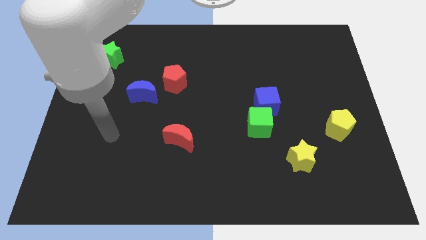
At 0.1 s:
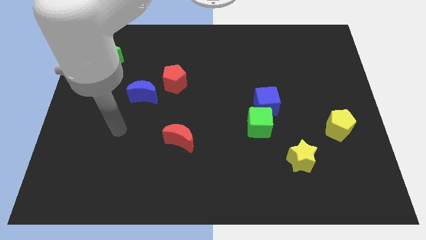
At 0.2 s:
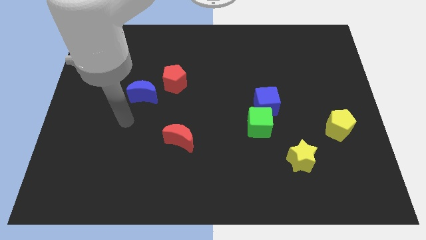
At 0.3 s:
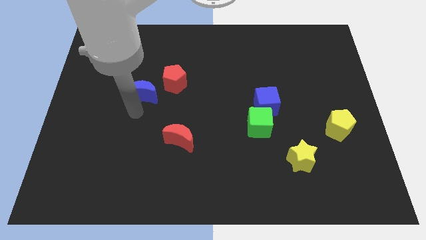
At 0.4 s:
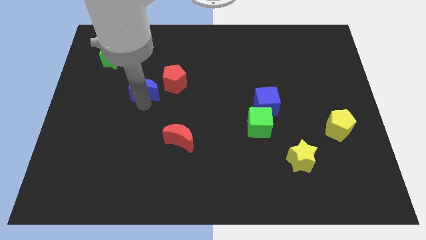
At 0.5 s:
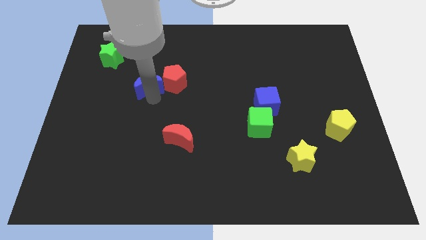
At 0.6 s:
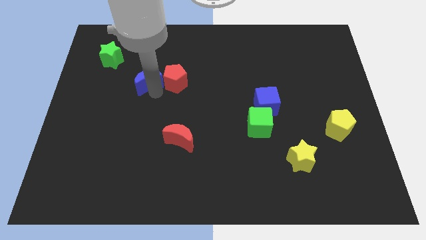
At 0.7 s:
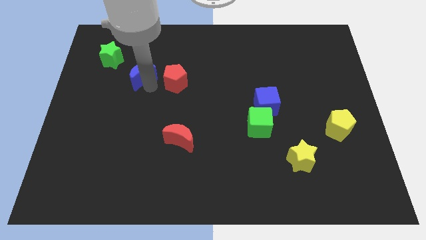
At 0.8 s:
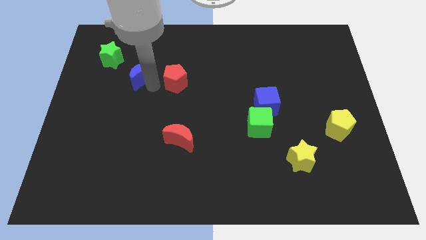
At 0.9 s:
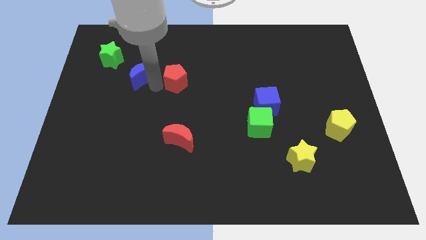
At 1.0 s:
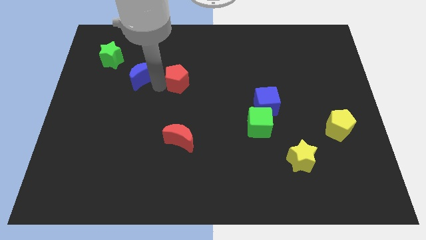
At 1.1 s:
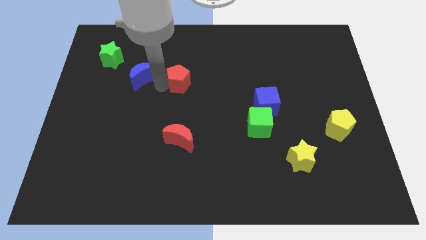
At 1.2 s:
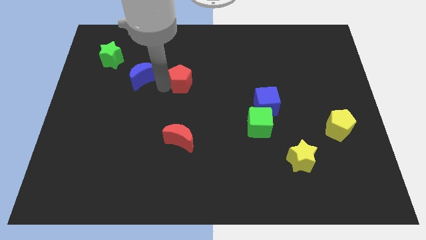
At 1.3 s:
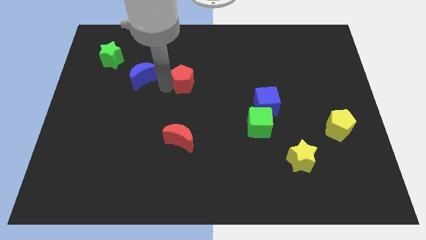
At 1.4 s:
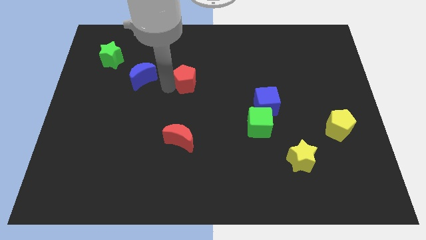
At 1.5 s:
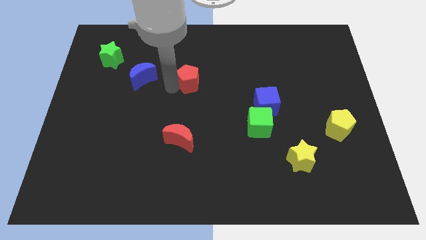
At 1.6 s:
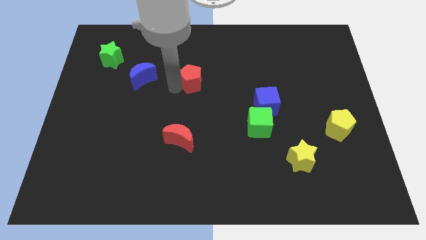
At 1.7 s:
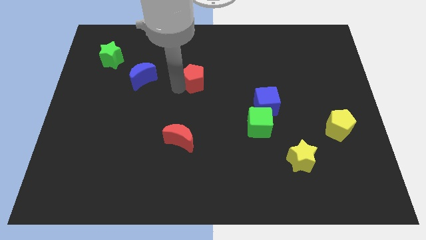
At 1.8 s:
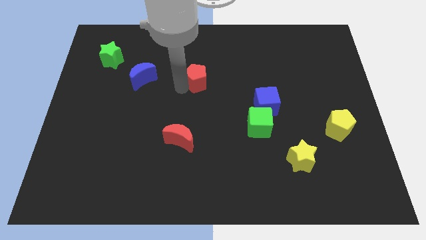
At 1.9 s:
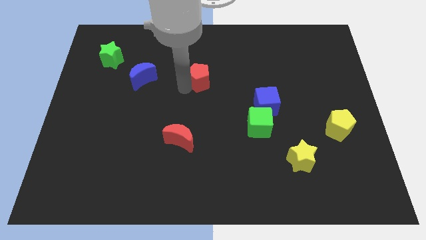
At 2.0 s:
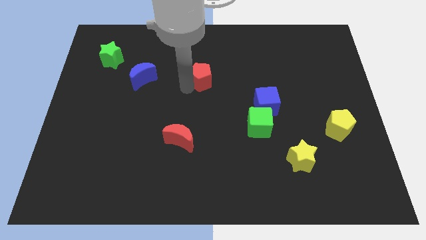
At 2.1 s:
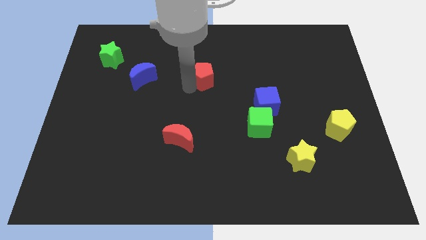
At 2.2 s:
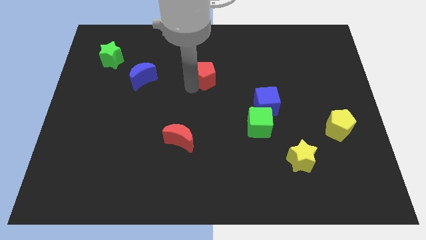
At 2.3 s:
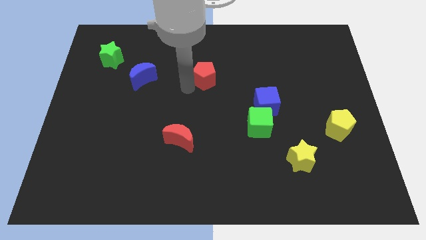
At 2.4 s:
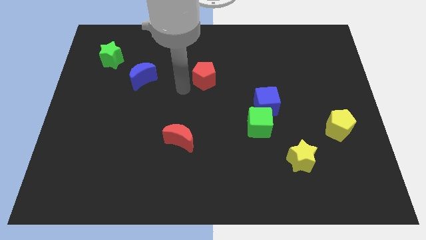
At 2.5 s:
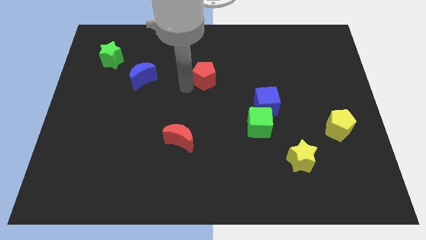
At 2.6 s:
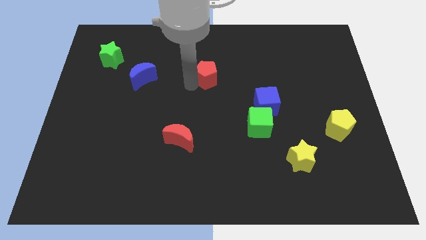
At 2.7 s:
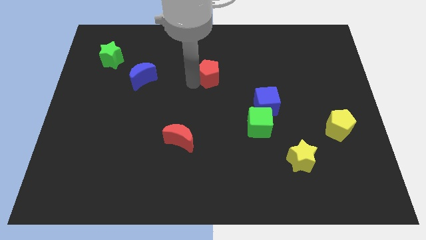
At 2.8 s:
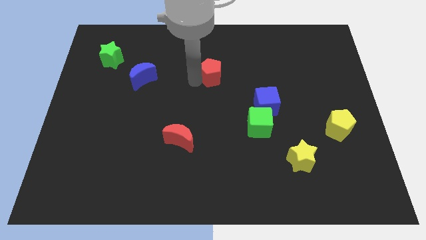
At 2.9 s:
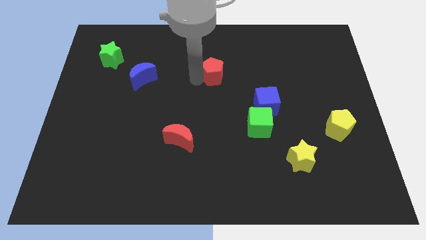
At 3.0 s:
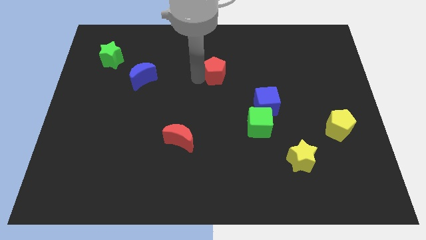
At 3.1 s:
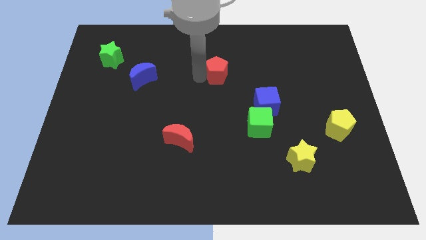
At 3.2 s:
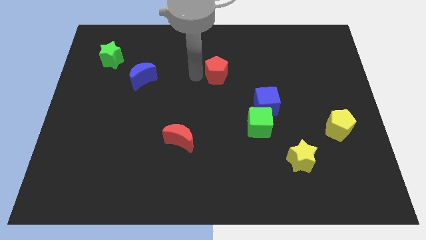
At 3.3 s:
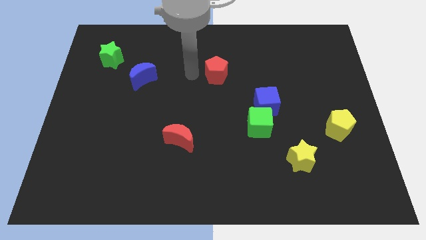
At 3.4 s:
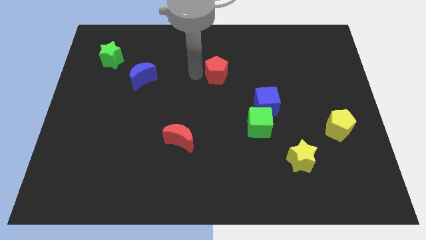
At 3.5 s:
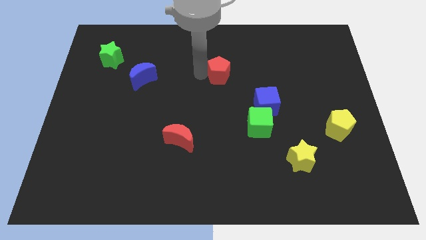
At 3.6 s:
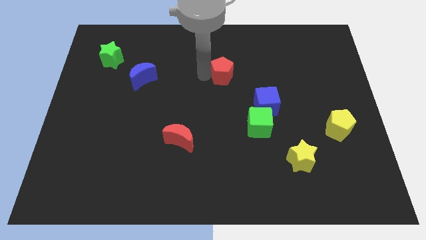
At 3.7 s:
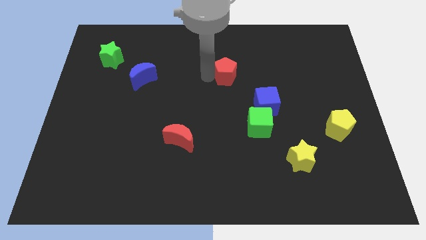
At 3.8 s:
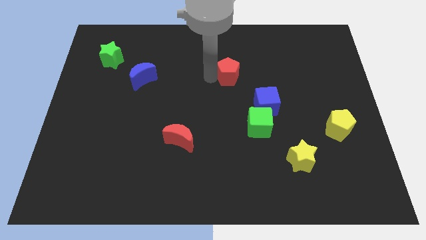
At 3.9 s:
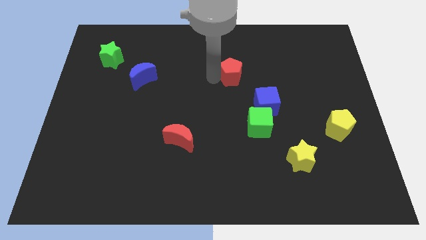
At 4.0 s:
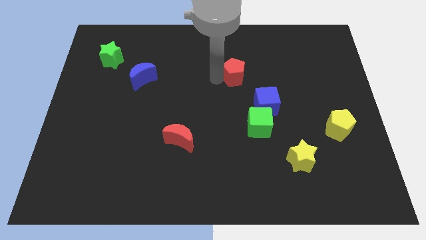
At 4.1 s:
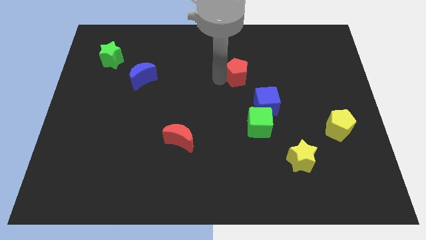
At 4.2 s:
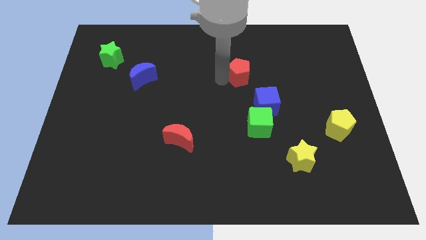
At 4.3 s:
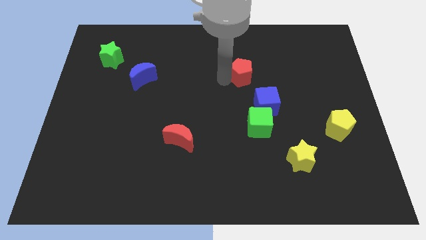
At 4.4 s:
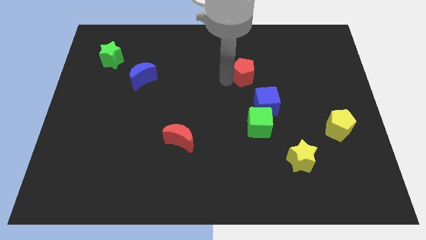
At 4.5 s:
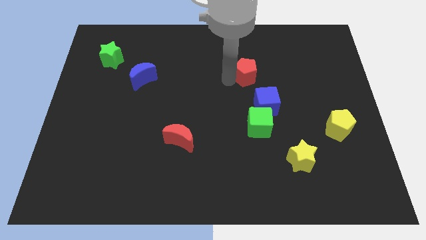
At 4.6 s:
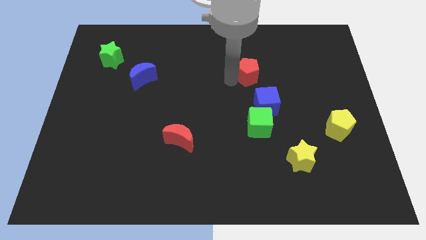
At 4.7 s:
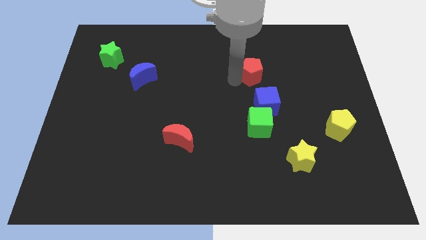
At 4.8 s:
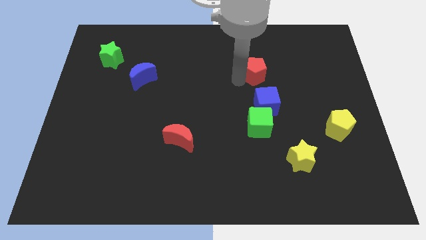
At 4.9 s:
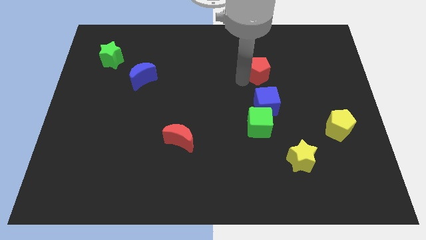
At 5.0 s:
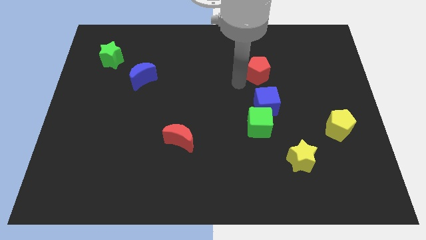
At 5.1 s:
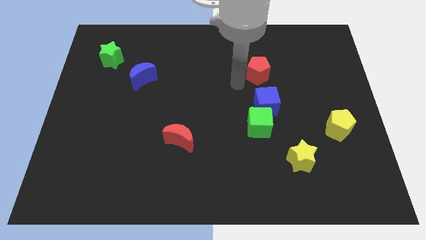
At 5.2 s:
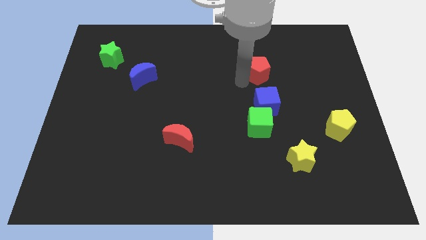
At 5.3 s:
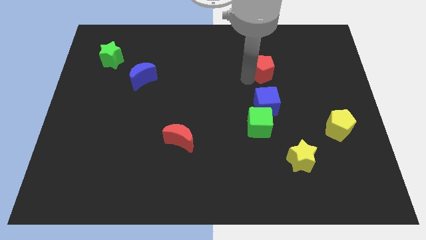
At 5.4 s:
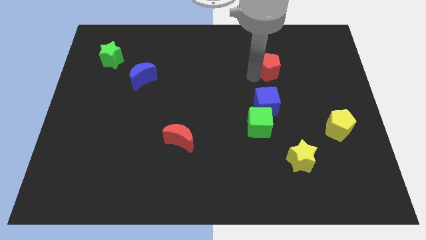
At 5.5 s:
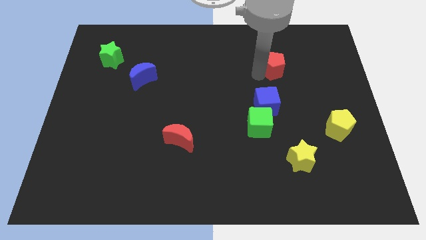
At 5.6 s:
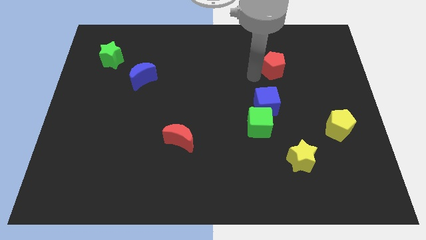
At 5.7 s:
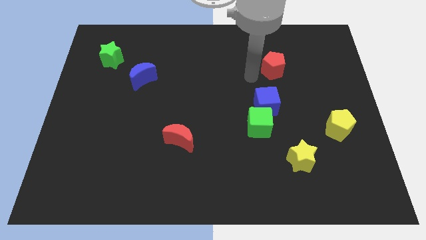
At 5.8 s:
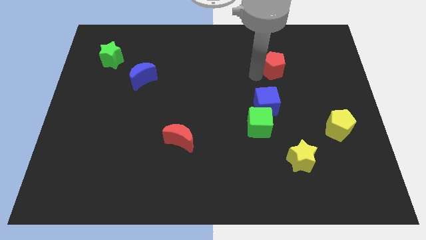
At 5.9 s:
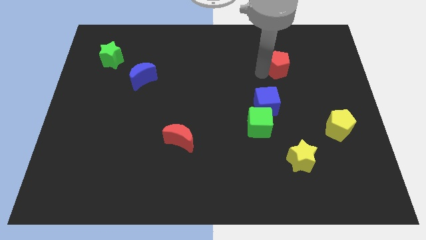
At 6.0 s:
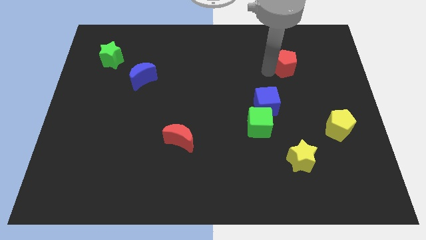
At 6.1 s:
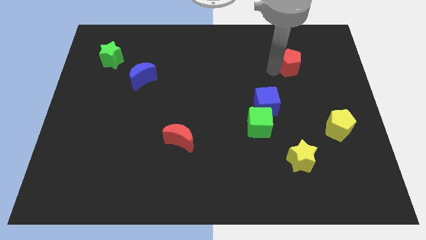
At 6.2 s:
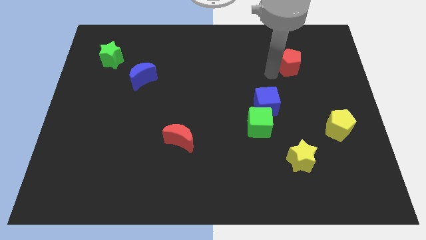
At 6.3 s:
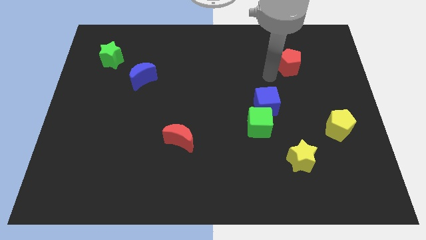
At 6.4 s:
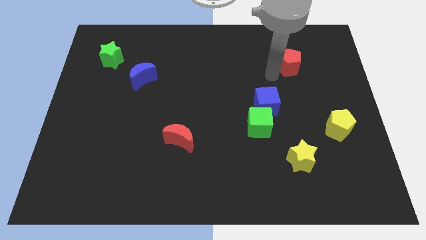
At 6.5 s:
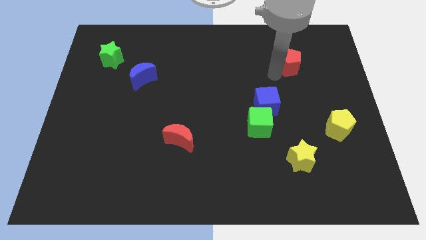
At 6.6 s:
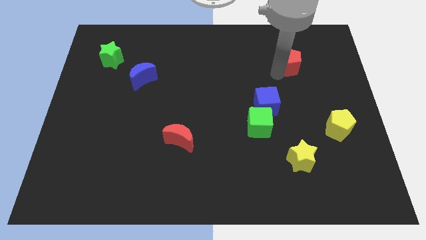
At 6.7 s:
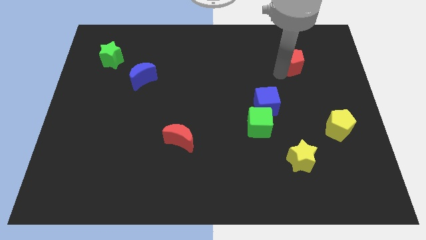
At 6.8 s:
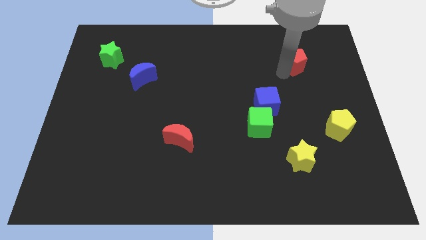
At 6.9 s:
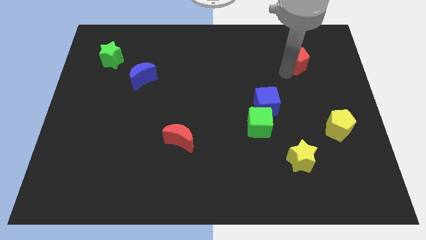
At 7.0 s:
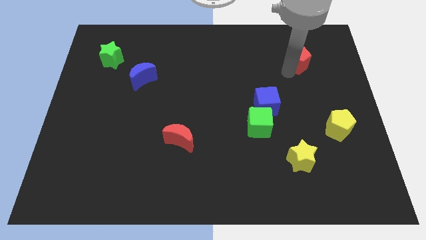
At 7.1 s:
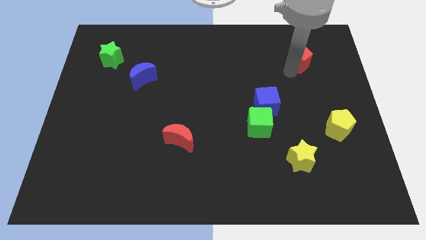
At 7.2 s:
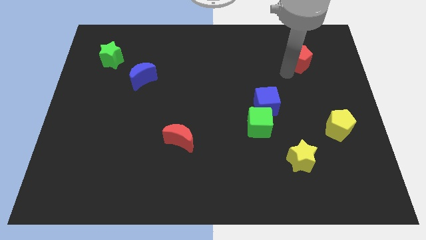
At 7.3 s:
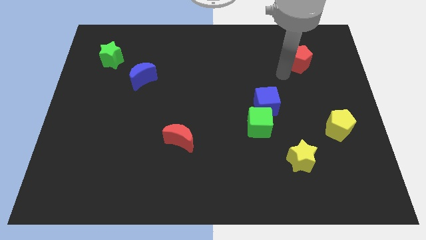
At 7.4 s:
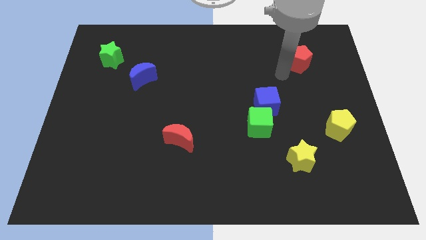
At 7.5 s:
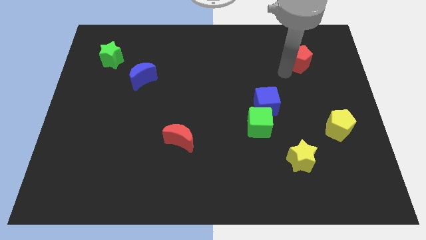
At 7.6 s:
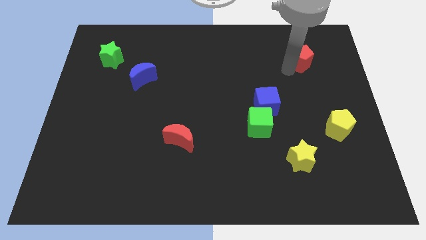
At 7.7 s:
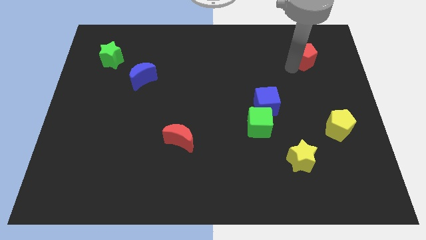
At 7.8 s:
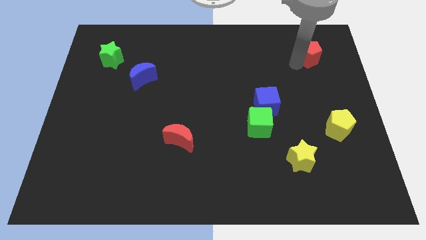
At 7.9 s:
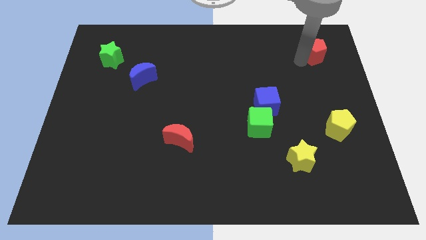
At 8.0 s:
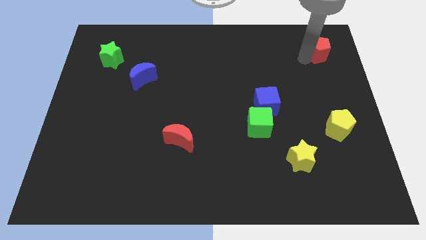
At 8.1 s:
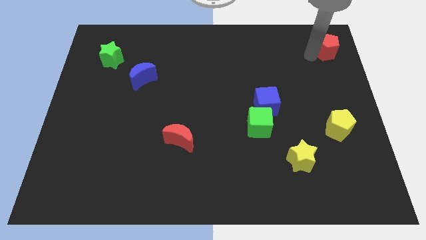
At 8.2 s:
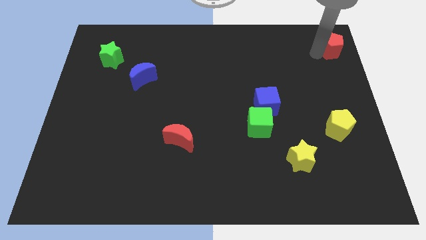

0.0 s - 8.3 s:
push the red pentagon to the top right corner
